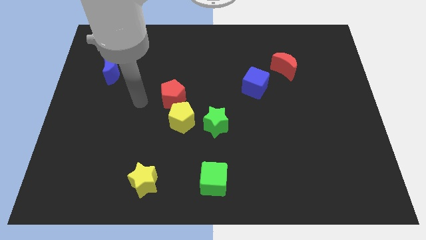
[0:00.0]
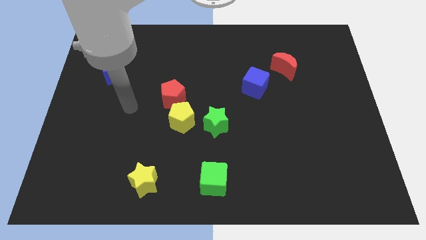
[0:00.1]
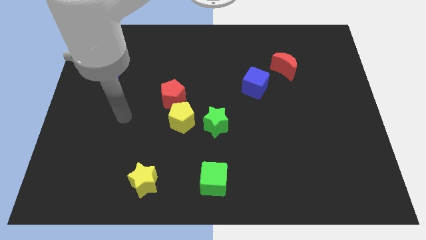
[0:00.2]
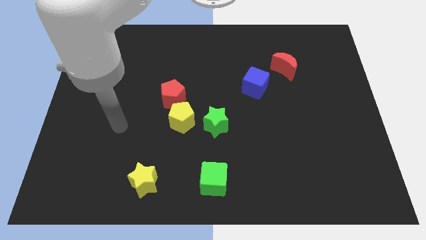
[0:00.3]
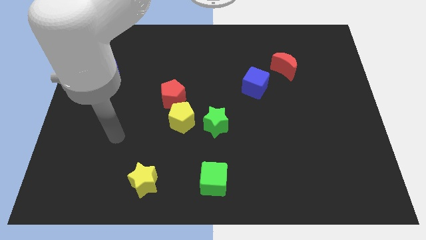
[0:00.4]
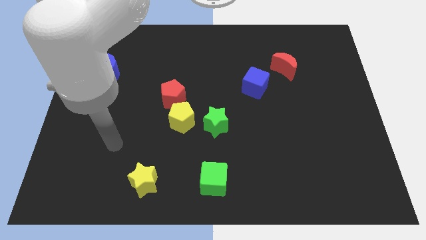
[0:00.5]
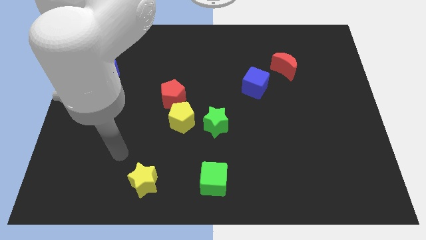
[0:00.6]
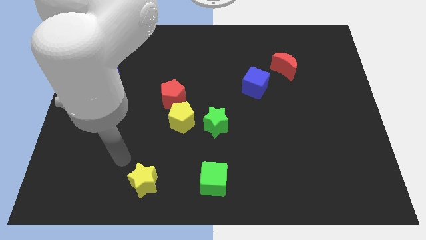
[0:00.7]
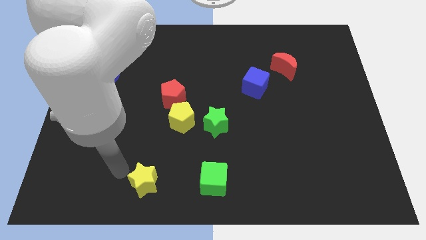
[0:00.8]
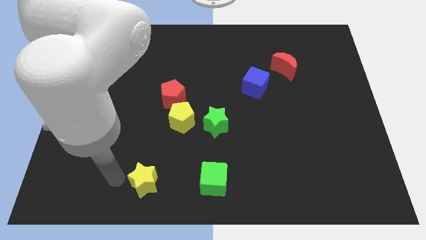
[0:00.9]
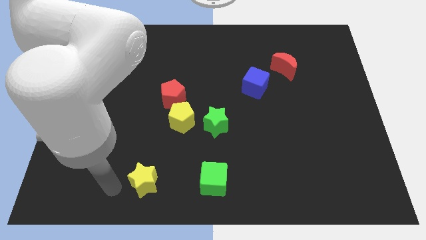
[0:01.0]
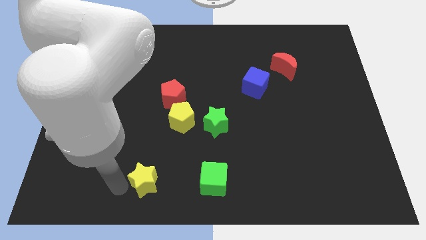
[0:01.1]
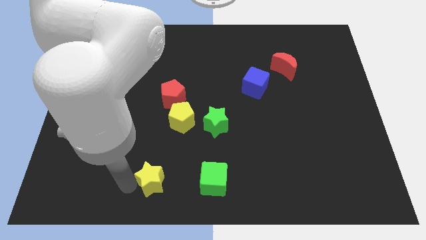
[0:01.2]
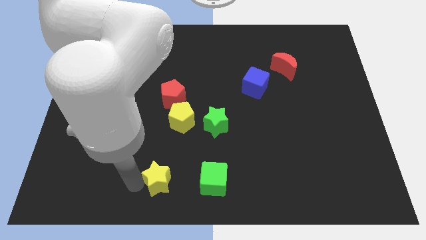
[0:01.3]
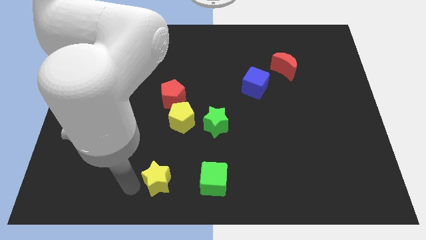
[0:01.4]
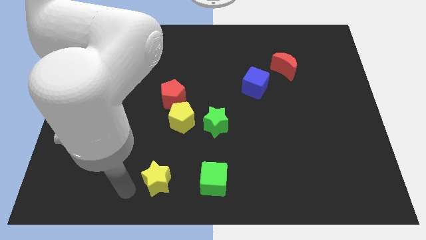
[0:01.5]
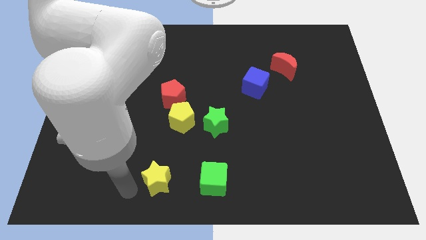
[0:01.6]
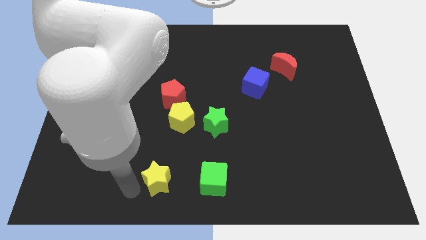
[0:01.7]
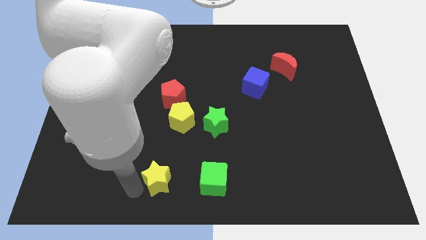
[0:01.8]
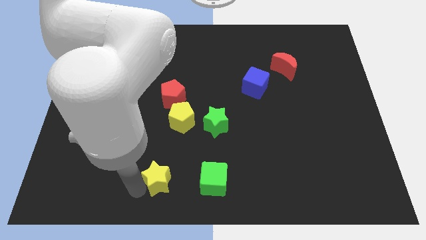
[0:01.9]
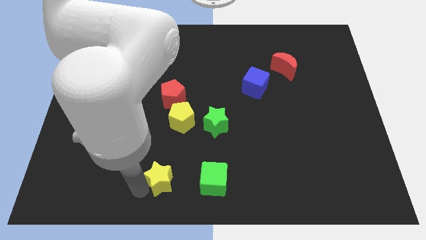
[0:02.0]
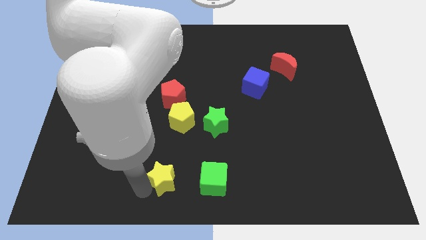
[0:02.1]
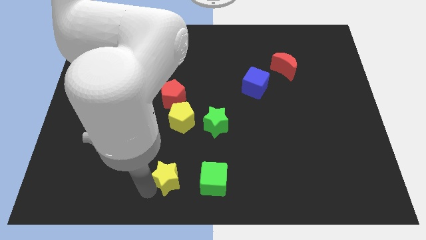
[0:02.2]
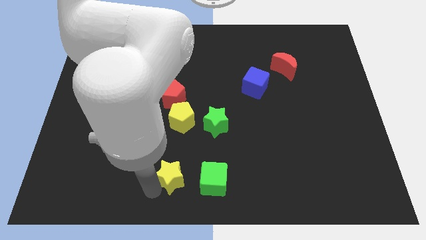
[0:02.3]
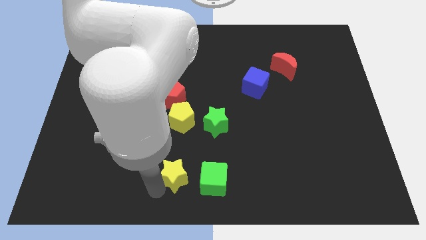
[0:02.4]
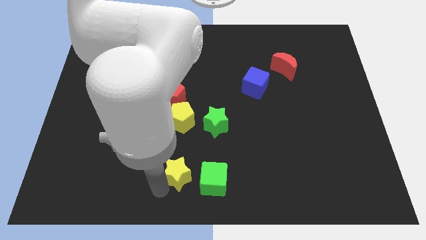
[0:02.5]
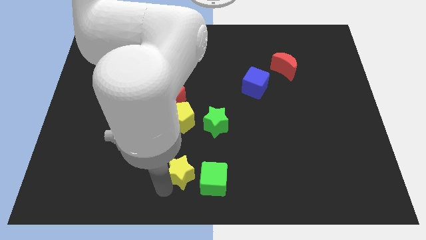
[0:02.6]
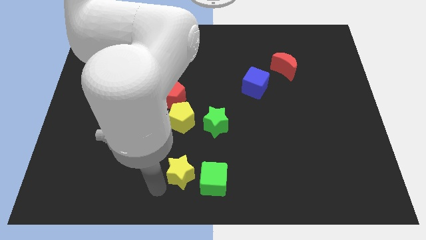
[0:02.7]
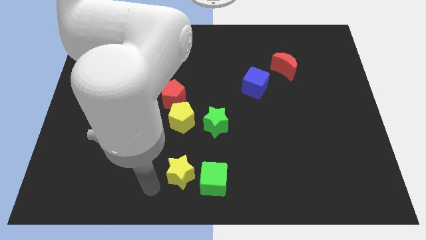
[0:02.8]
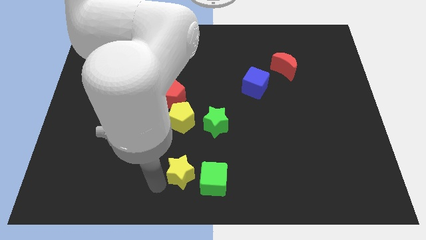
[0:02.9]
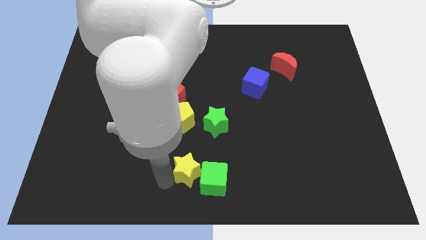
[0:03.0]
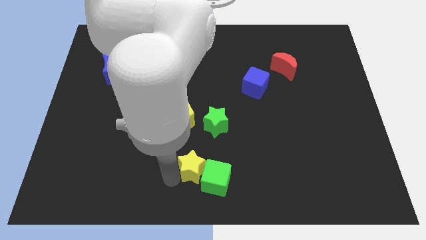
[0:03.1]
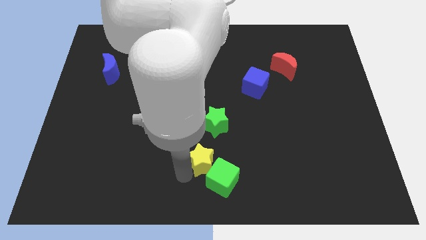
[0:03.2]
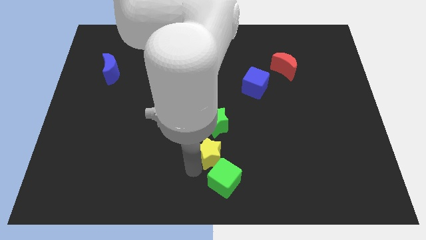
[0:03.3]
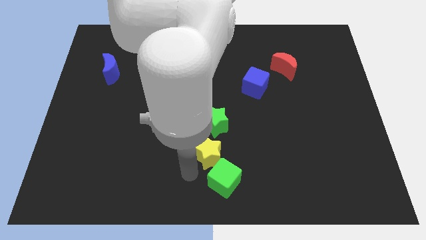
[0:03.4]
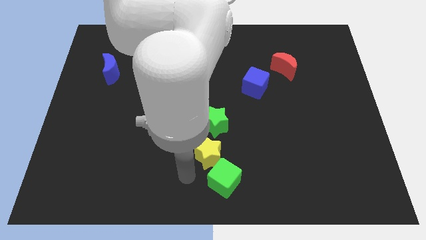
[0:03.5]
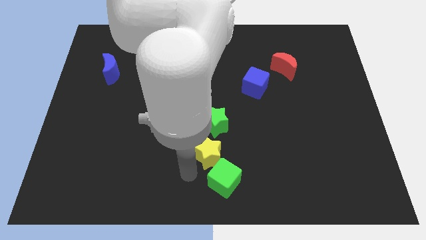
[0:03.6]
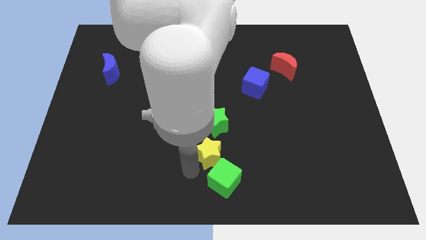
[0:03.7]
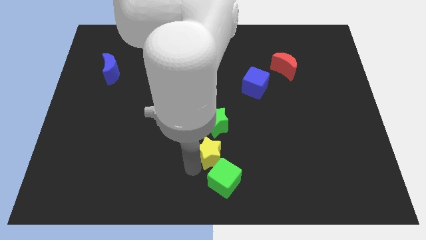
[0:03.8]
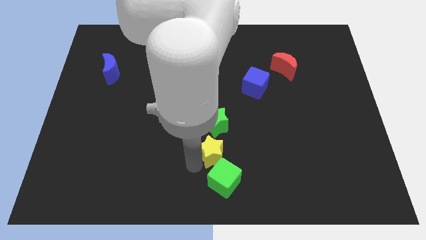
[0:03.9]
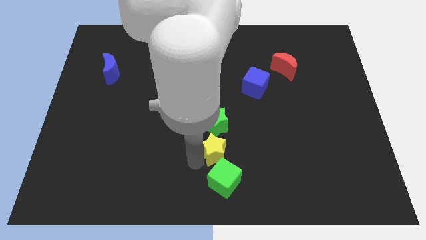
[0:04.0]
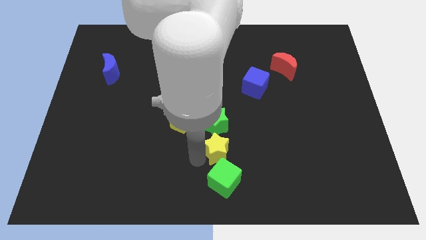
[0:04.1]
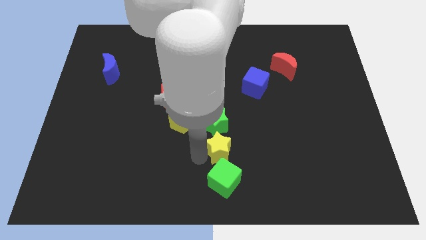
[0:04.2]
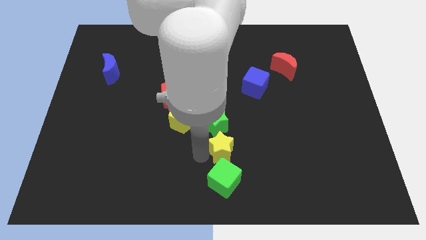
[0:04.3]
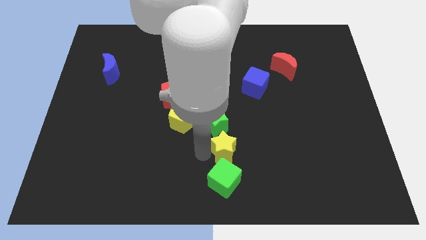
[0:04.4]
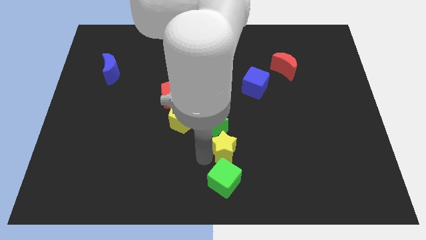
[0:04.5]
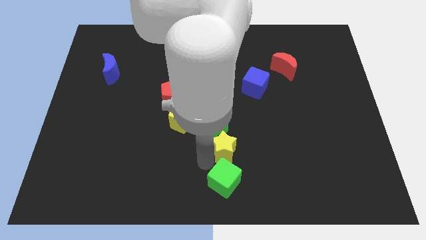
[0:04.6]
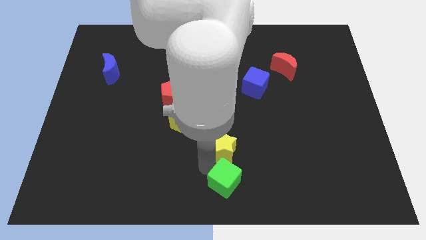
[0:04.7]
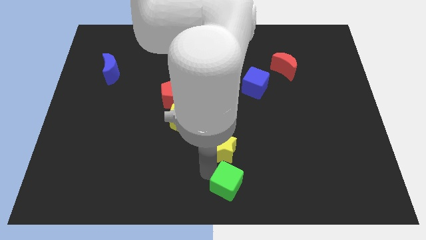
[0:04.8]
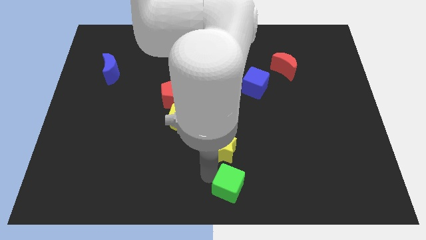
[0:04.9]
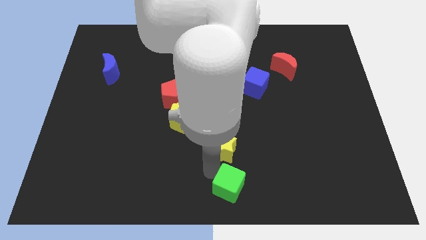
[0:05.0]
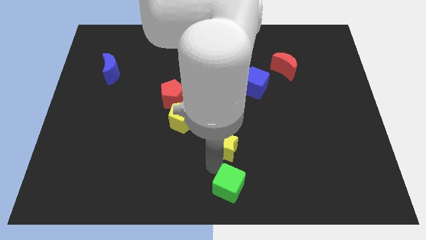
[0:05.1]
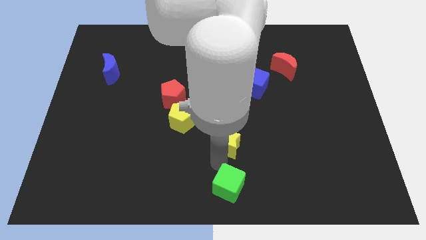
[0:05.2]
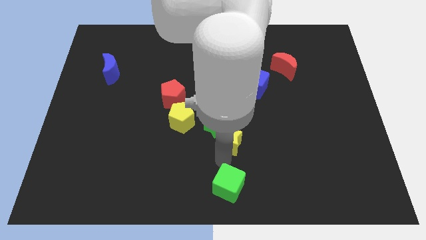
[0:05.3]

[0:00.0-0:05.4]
push the yellow star to the center of the board

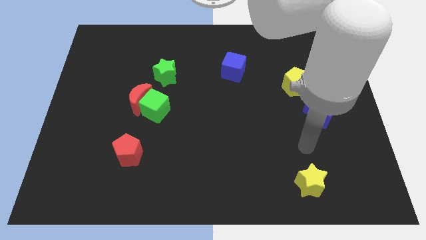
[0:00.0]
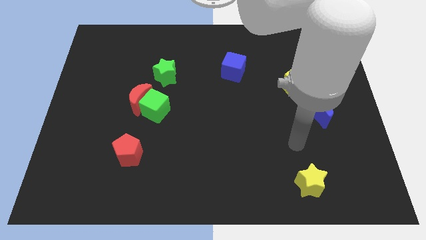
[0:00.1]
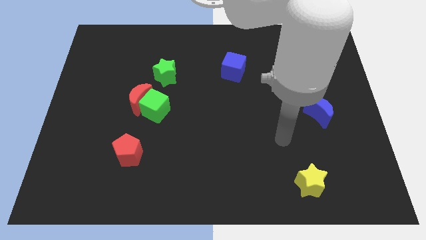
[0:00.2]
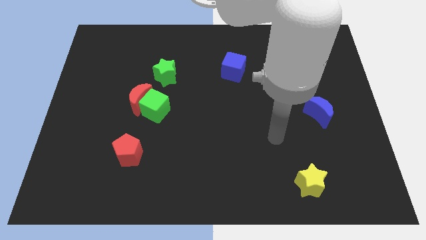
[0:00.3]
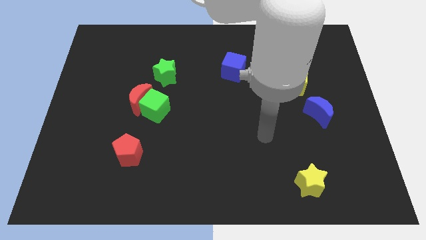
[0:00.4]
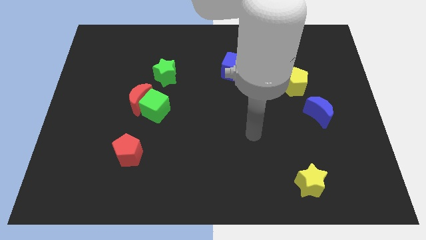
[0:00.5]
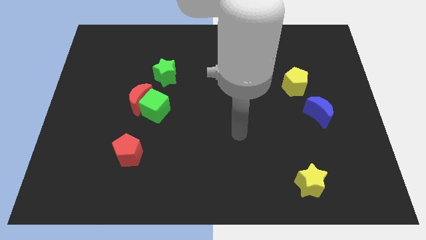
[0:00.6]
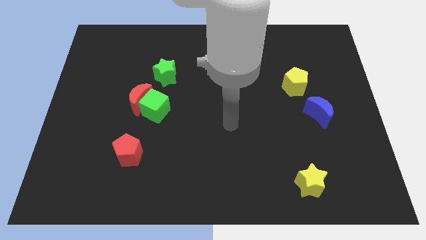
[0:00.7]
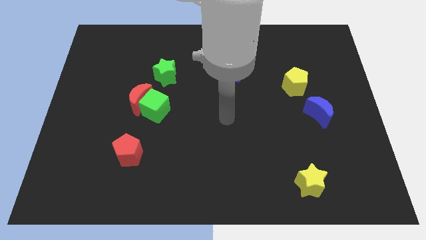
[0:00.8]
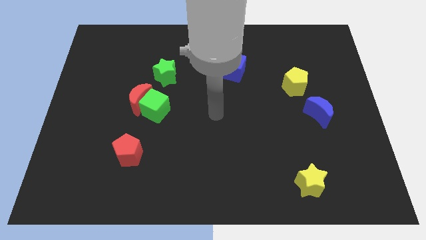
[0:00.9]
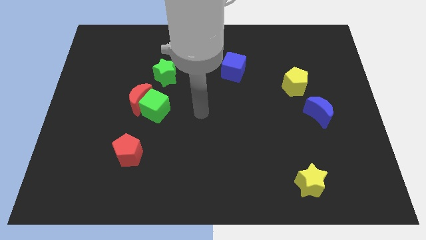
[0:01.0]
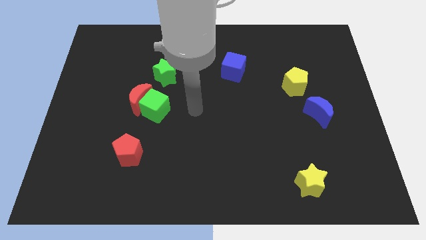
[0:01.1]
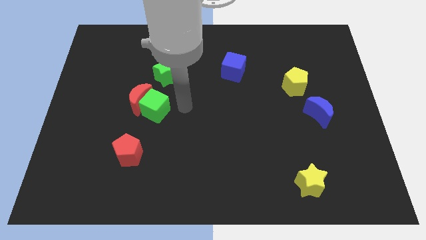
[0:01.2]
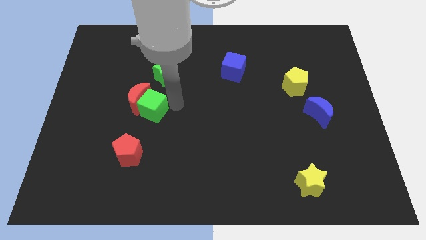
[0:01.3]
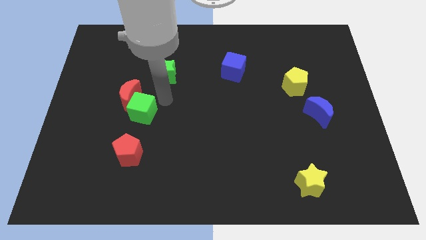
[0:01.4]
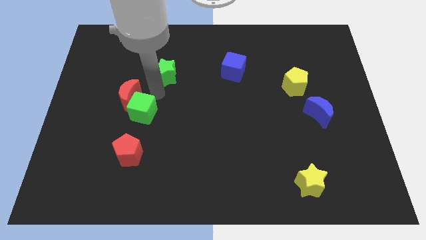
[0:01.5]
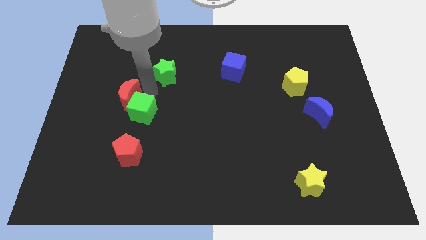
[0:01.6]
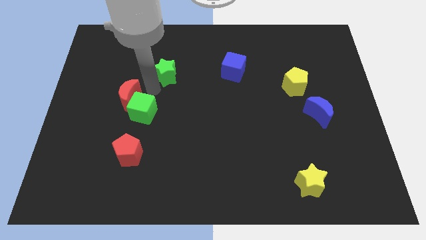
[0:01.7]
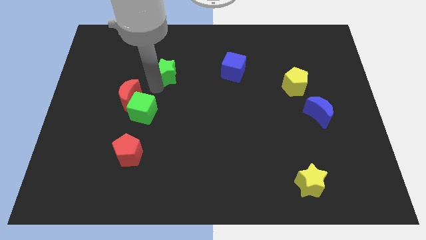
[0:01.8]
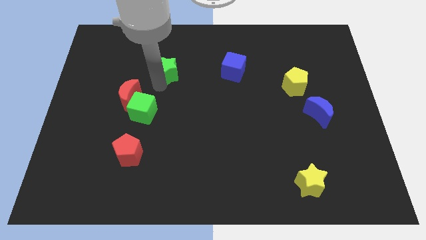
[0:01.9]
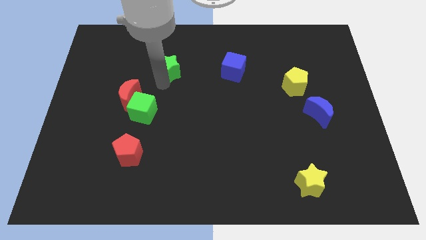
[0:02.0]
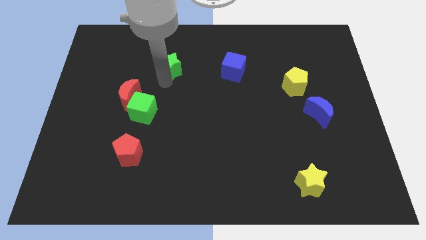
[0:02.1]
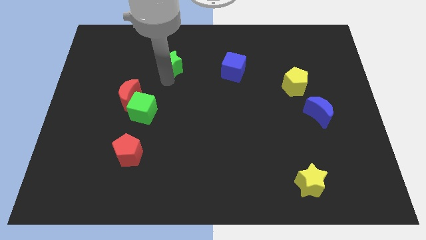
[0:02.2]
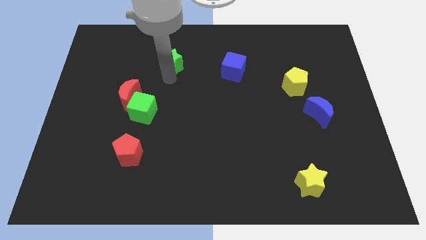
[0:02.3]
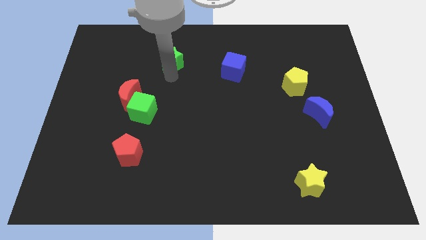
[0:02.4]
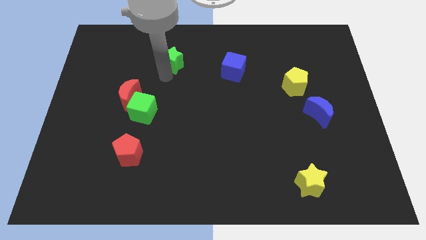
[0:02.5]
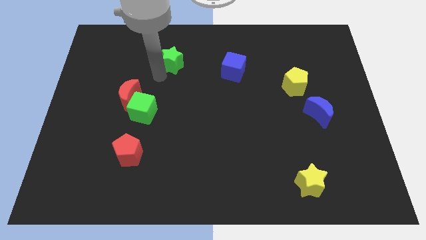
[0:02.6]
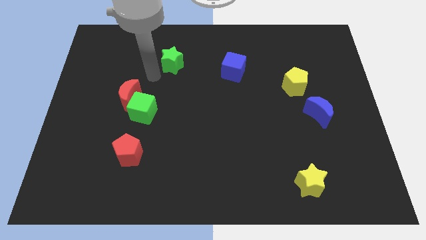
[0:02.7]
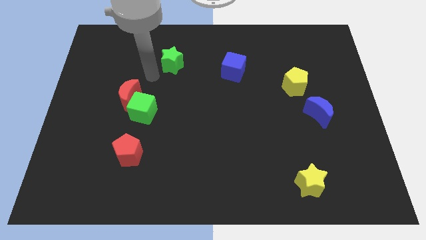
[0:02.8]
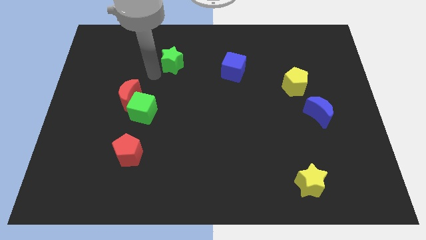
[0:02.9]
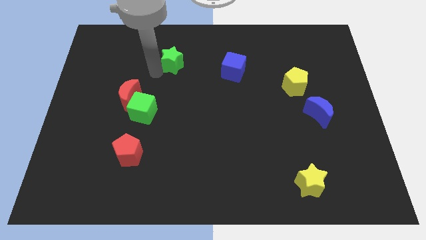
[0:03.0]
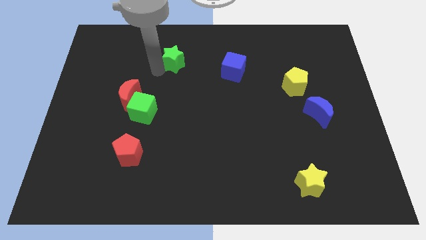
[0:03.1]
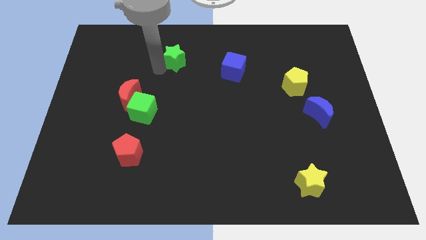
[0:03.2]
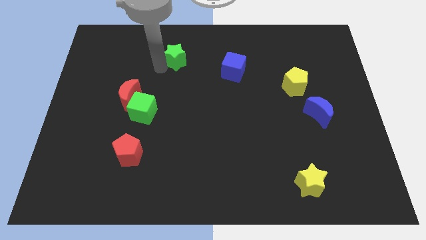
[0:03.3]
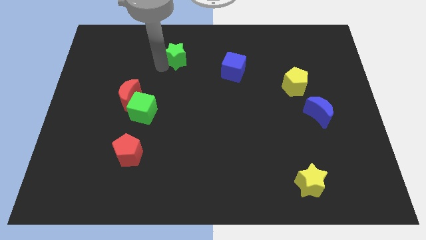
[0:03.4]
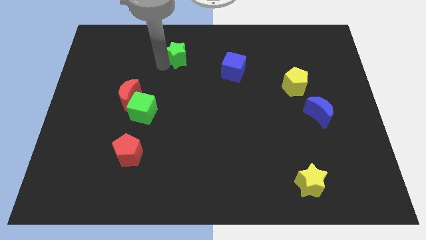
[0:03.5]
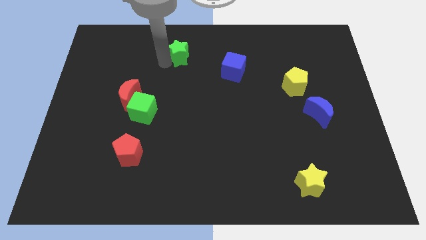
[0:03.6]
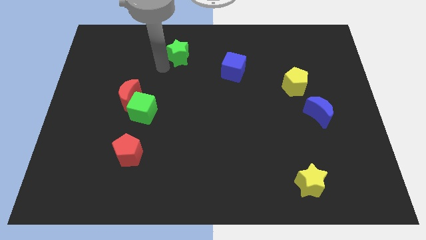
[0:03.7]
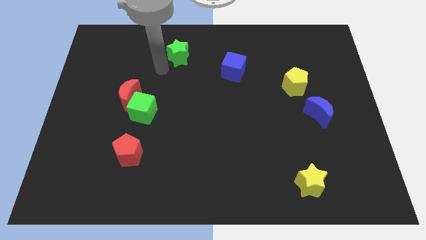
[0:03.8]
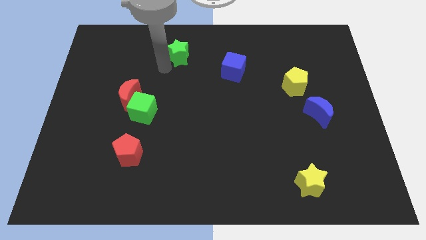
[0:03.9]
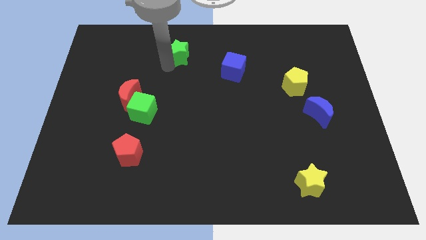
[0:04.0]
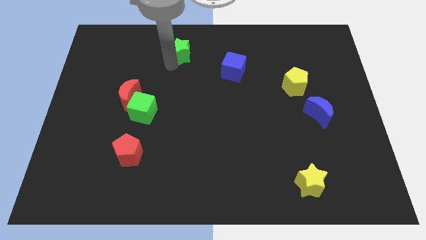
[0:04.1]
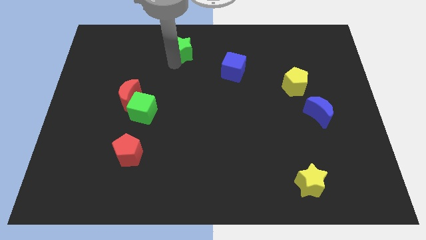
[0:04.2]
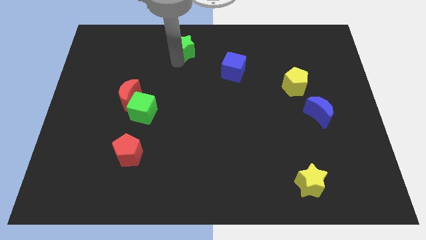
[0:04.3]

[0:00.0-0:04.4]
push the green star to the towards your base
